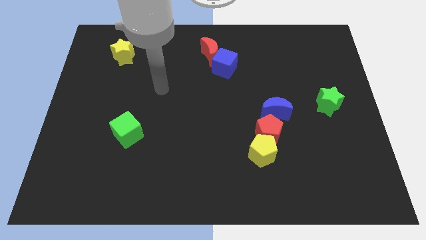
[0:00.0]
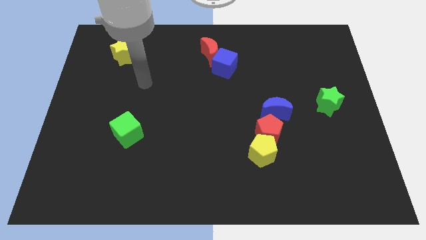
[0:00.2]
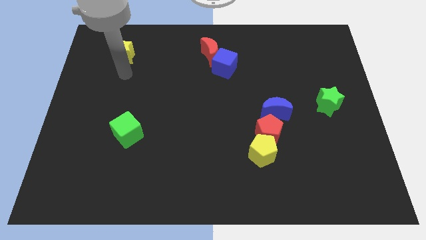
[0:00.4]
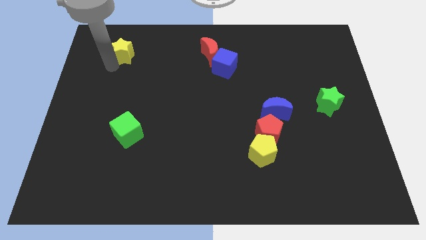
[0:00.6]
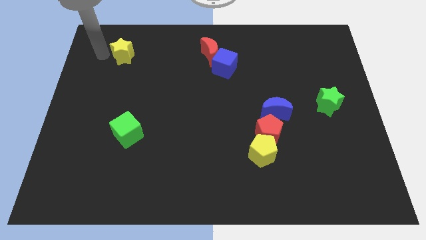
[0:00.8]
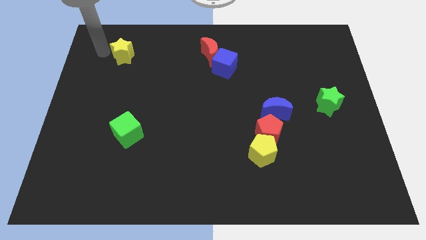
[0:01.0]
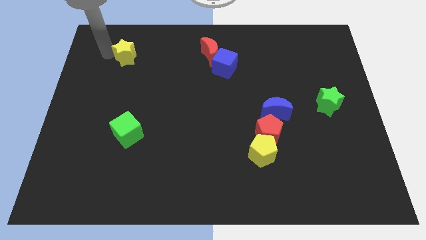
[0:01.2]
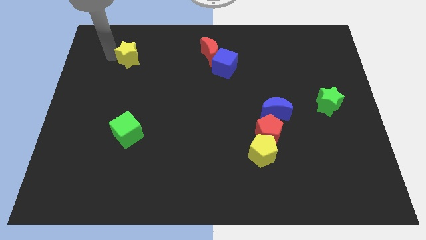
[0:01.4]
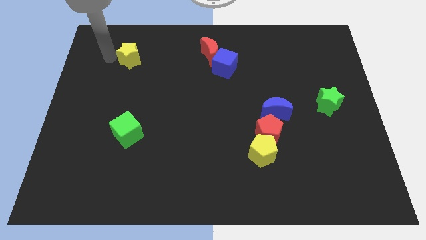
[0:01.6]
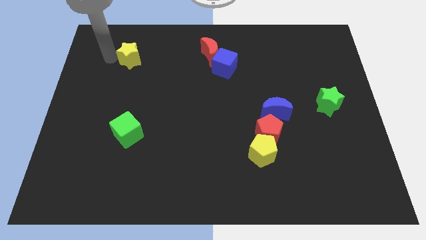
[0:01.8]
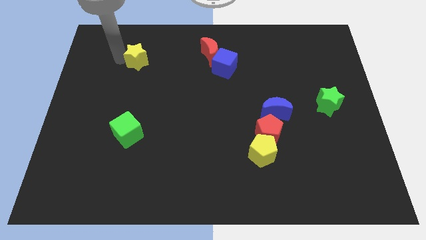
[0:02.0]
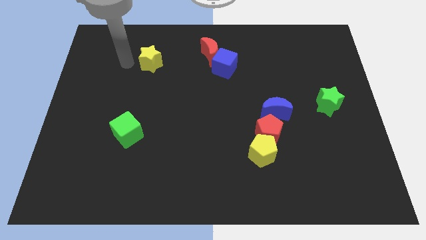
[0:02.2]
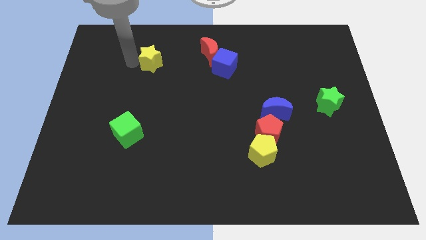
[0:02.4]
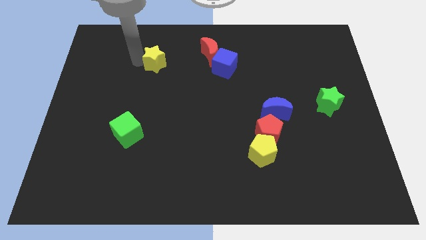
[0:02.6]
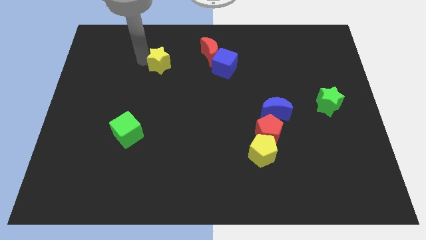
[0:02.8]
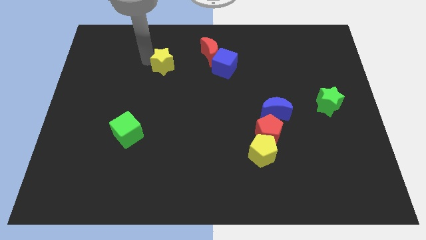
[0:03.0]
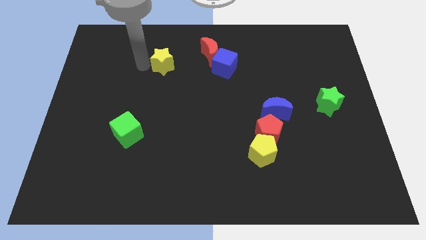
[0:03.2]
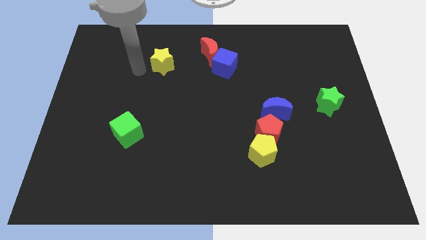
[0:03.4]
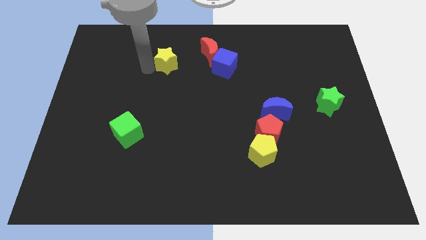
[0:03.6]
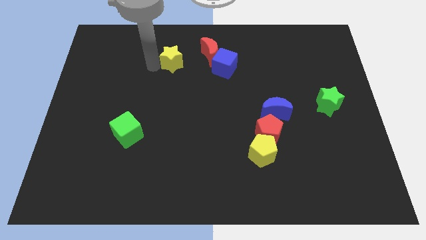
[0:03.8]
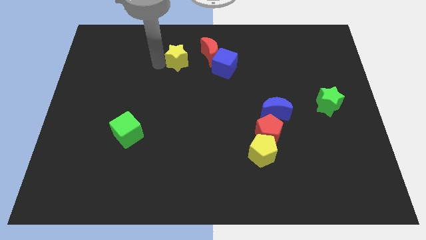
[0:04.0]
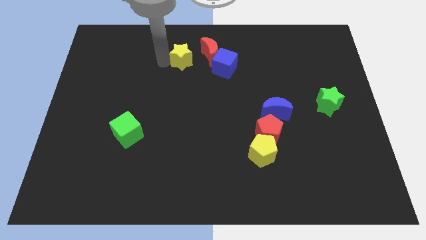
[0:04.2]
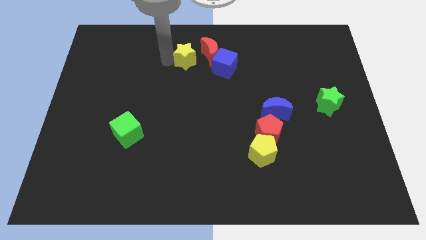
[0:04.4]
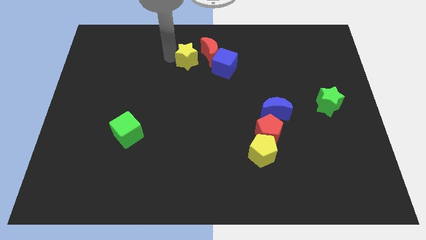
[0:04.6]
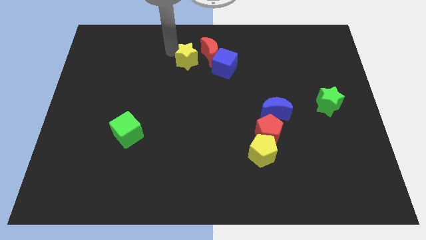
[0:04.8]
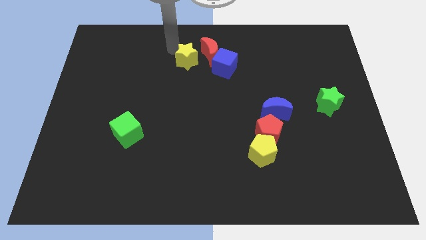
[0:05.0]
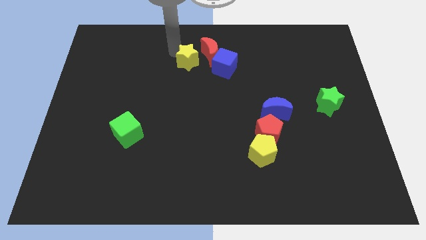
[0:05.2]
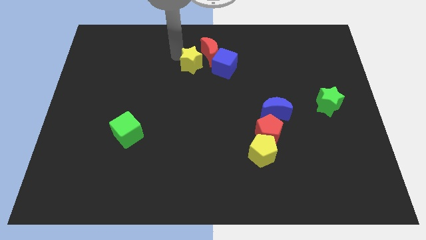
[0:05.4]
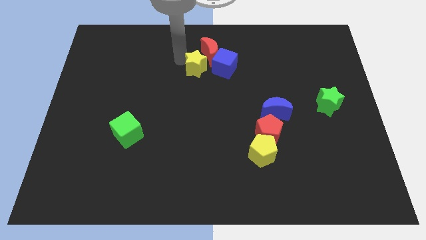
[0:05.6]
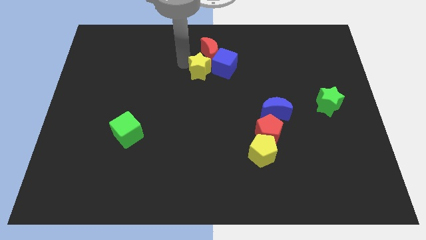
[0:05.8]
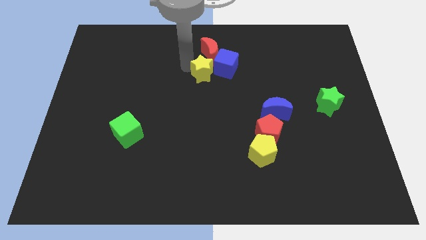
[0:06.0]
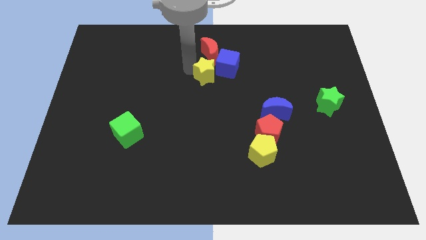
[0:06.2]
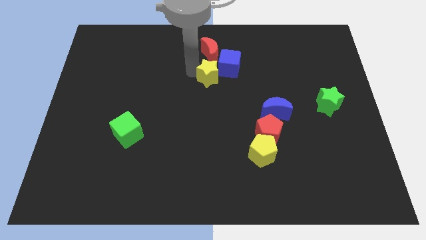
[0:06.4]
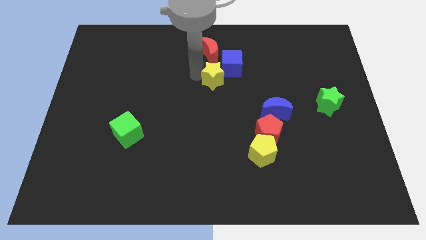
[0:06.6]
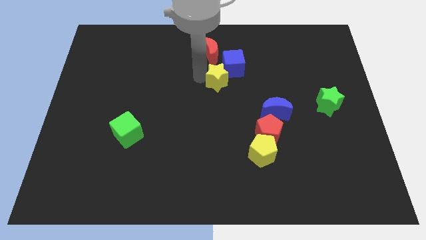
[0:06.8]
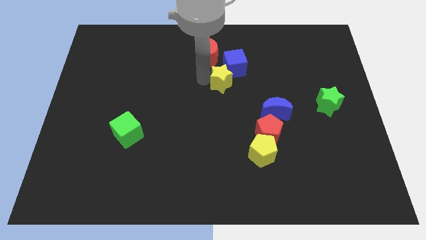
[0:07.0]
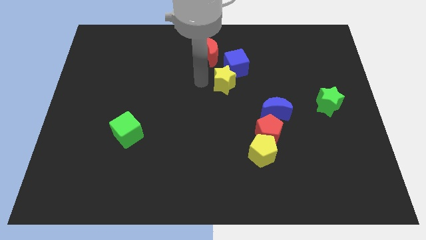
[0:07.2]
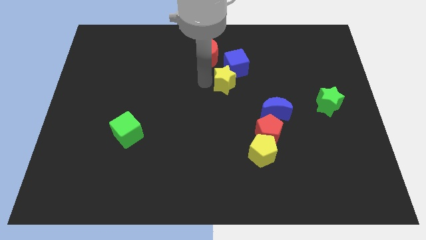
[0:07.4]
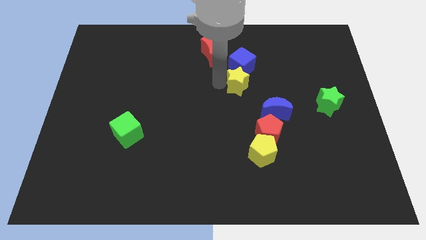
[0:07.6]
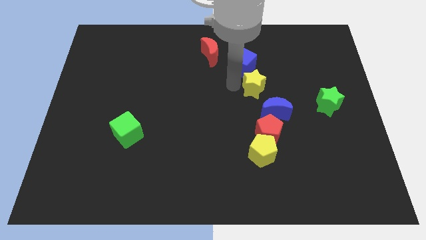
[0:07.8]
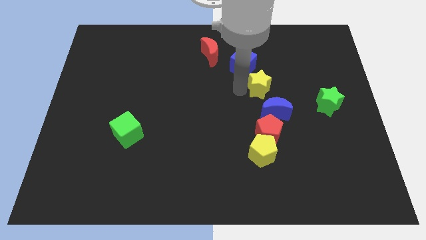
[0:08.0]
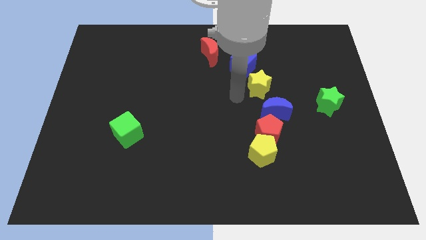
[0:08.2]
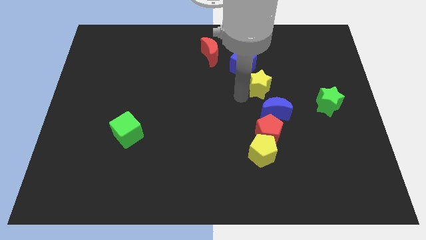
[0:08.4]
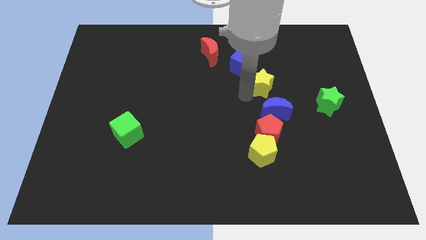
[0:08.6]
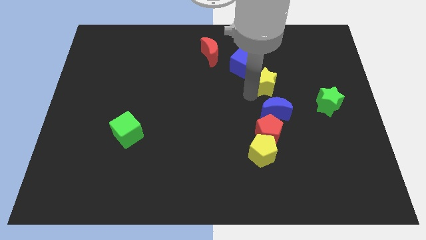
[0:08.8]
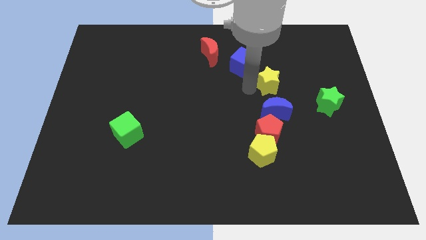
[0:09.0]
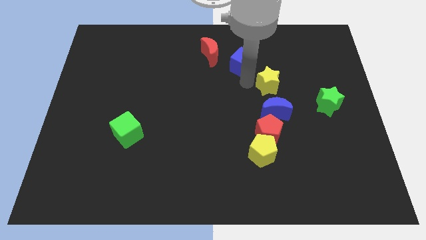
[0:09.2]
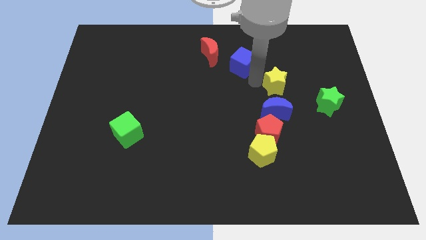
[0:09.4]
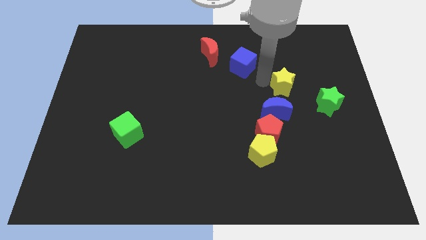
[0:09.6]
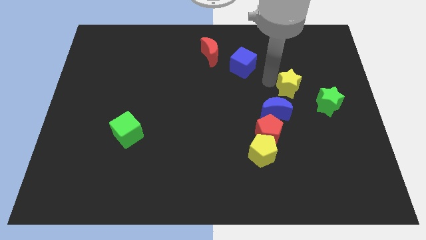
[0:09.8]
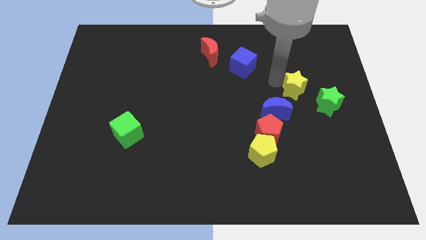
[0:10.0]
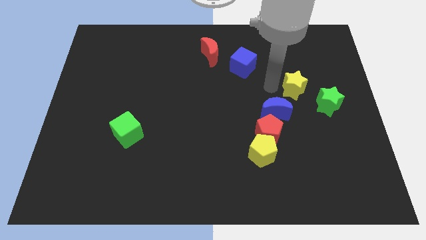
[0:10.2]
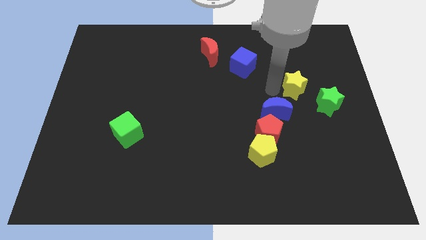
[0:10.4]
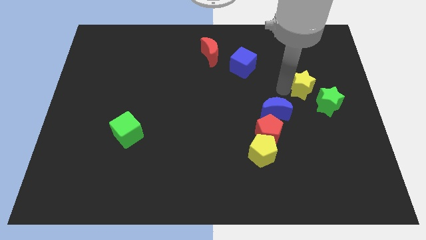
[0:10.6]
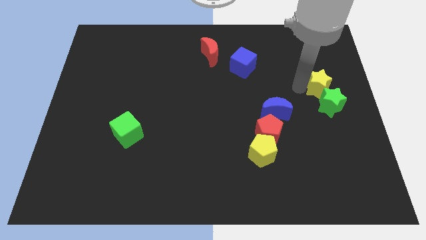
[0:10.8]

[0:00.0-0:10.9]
slide the yellow star to the right side

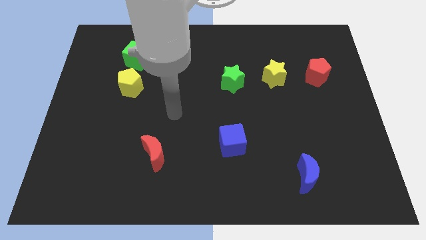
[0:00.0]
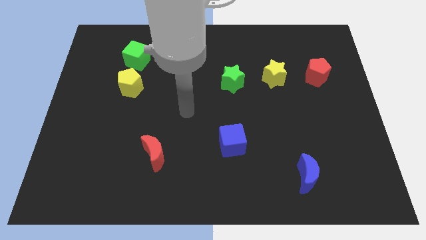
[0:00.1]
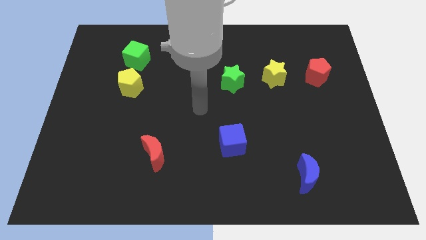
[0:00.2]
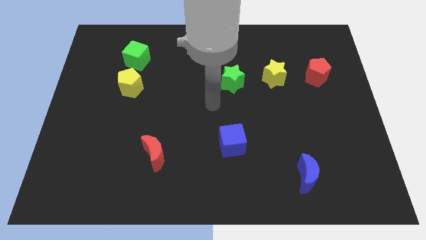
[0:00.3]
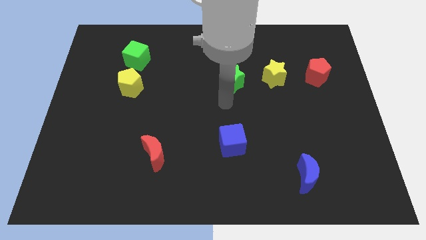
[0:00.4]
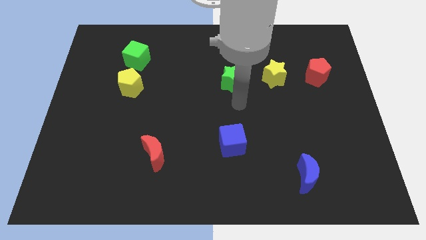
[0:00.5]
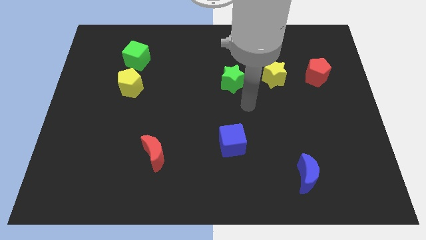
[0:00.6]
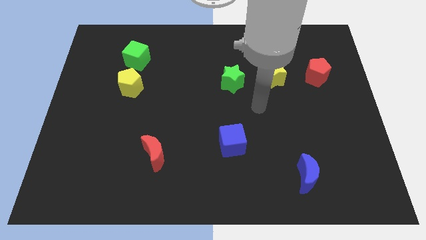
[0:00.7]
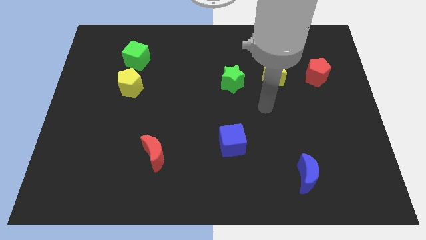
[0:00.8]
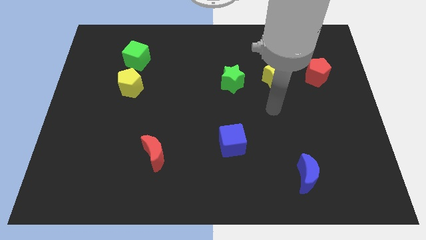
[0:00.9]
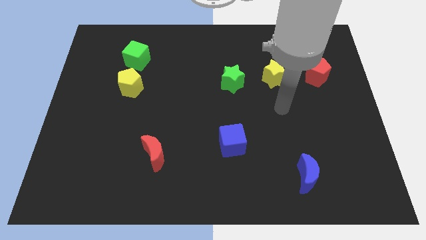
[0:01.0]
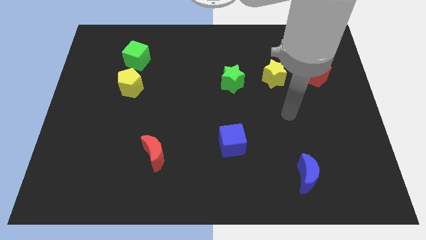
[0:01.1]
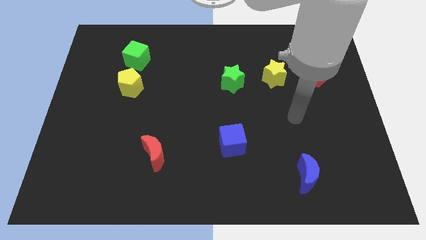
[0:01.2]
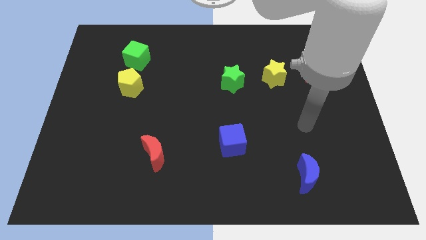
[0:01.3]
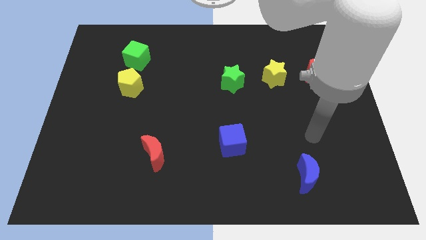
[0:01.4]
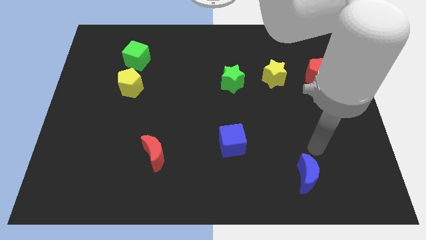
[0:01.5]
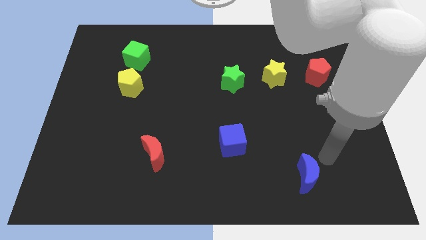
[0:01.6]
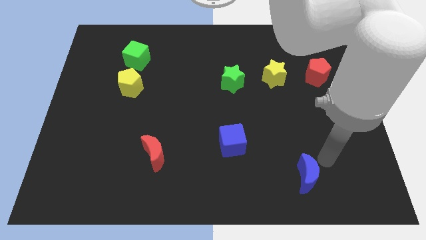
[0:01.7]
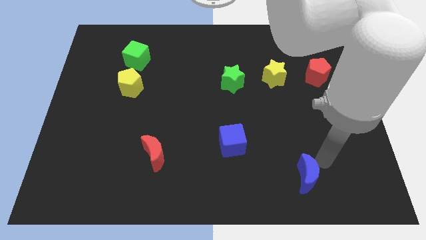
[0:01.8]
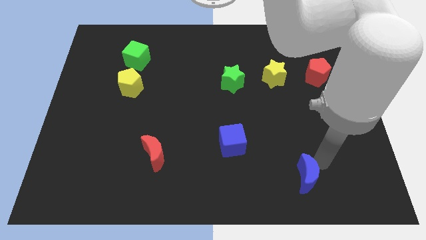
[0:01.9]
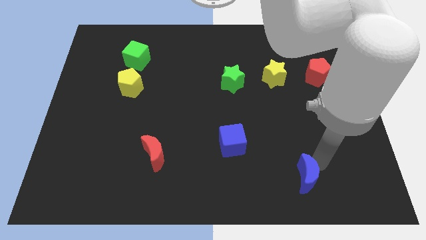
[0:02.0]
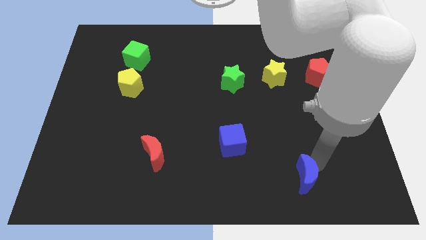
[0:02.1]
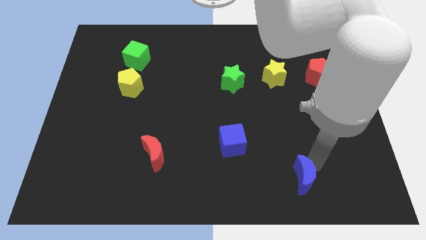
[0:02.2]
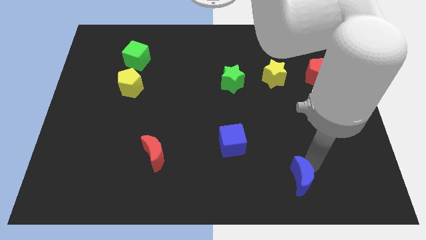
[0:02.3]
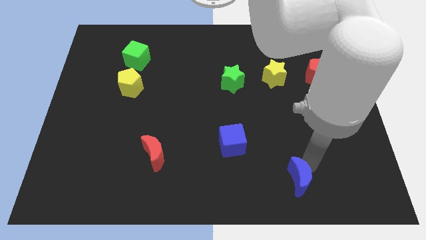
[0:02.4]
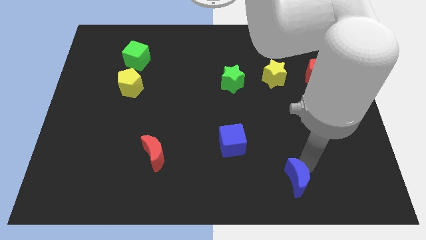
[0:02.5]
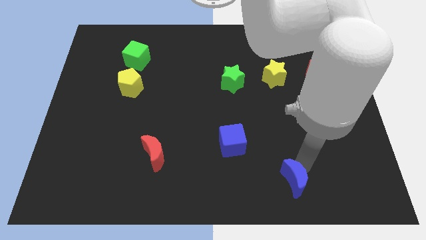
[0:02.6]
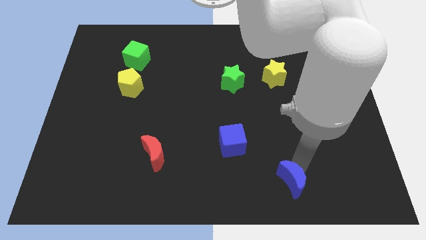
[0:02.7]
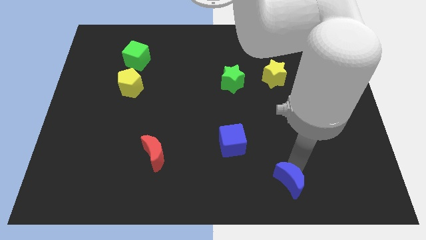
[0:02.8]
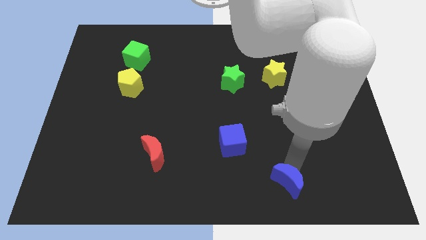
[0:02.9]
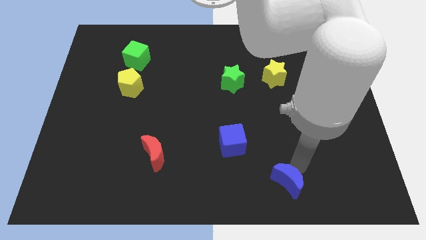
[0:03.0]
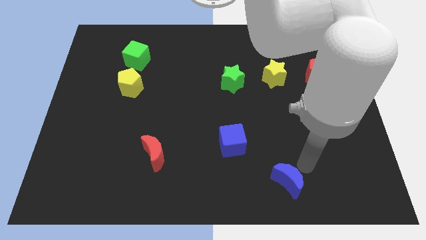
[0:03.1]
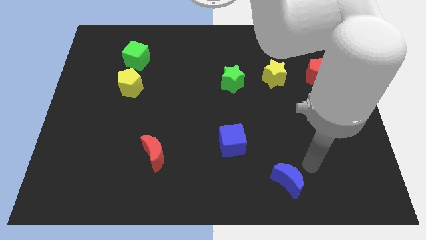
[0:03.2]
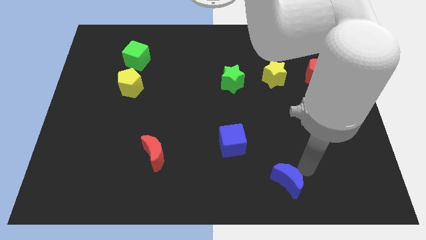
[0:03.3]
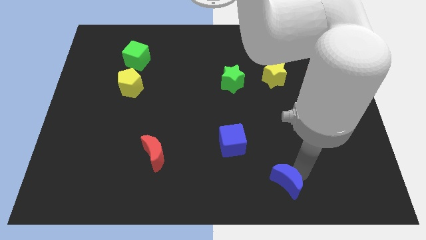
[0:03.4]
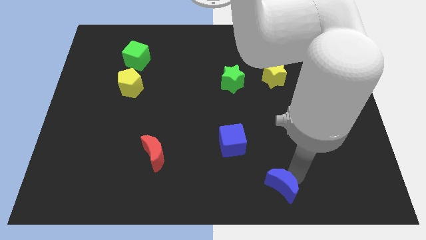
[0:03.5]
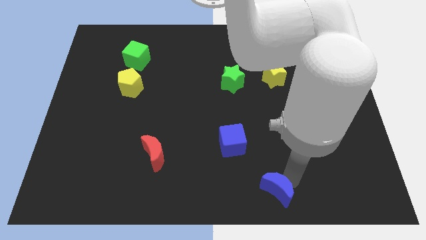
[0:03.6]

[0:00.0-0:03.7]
move the blue moon to the bottom
